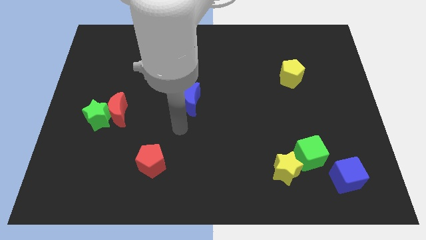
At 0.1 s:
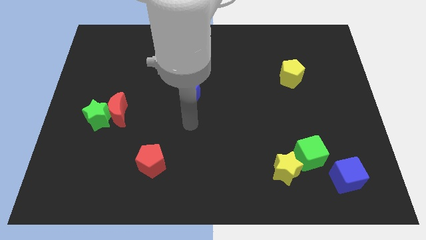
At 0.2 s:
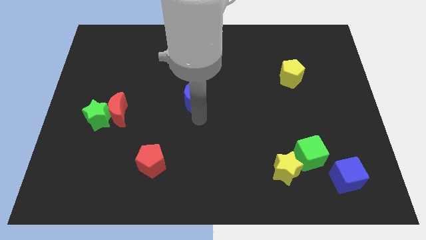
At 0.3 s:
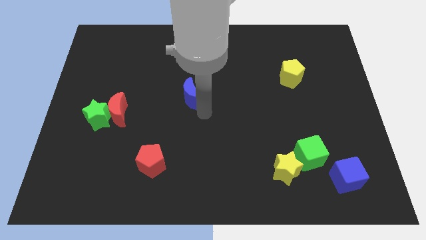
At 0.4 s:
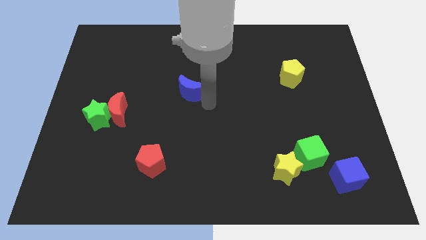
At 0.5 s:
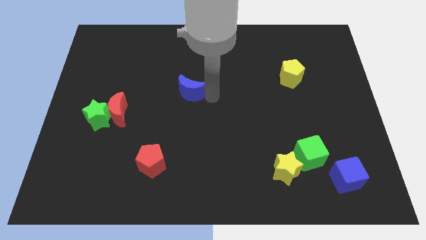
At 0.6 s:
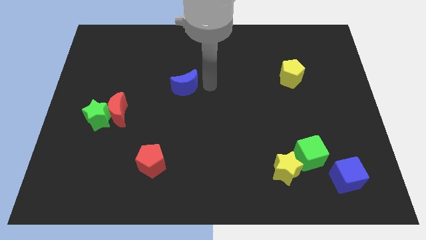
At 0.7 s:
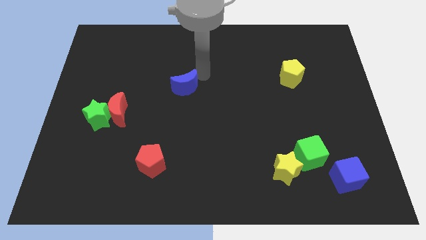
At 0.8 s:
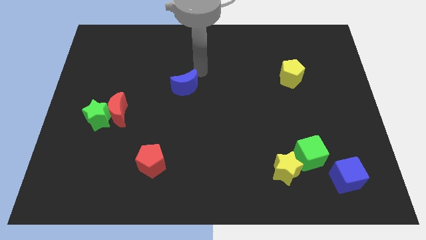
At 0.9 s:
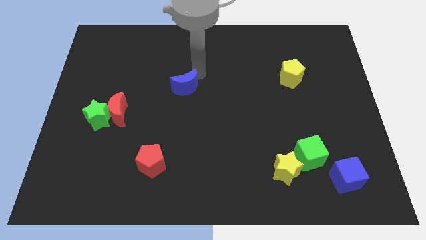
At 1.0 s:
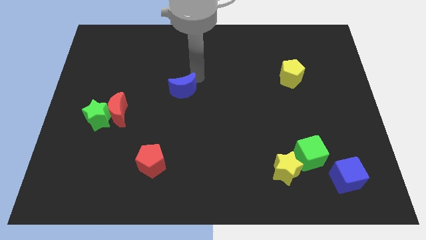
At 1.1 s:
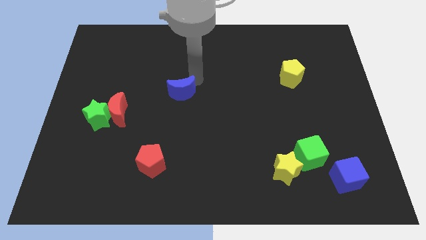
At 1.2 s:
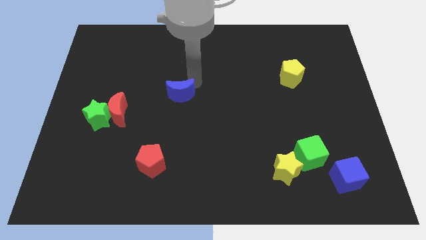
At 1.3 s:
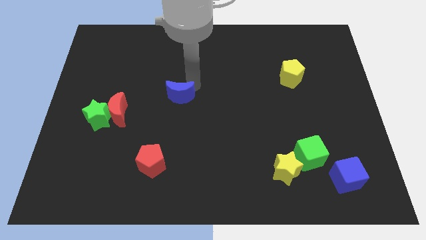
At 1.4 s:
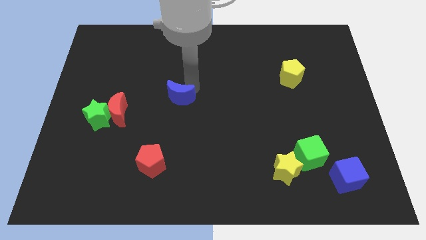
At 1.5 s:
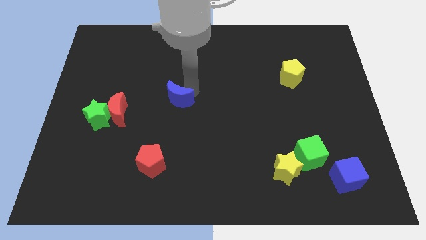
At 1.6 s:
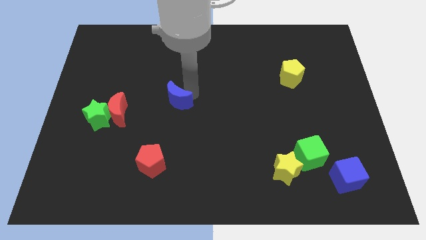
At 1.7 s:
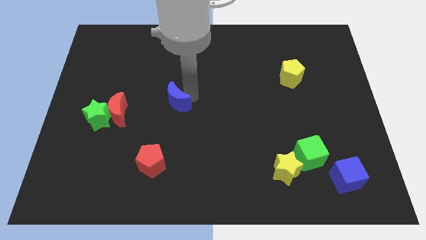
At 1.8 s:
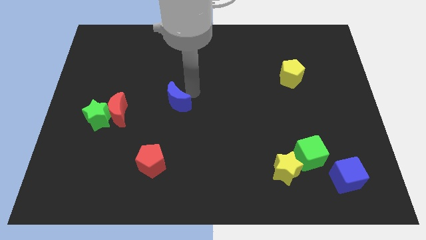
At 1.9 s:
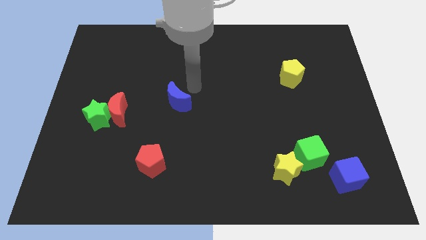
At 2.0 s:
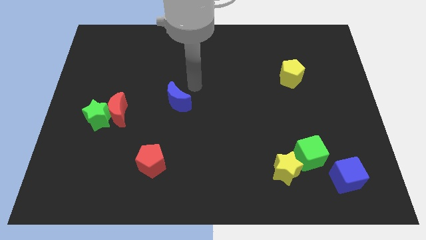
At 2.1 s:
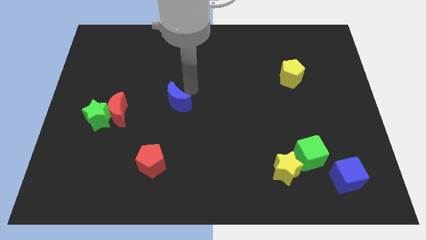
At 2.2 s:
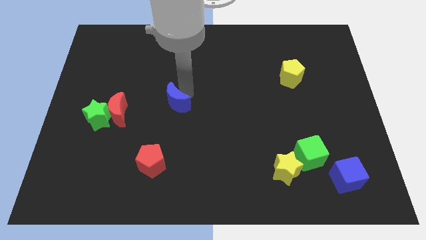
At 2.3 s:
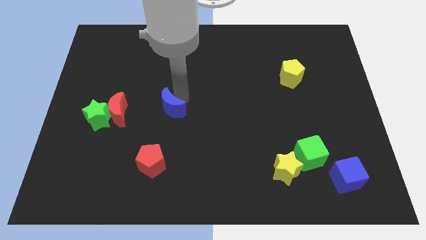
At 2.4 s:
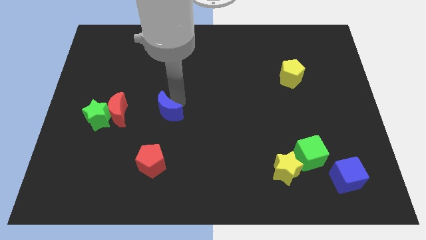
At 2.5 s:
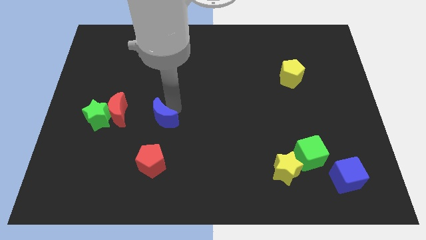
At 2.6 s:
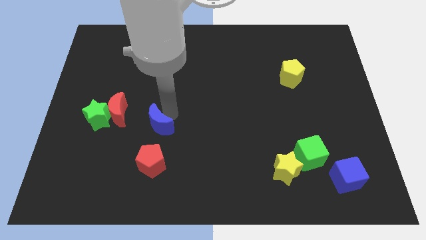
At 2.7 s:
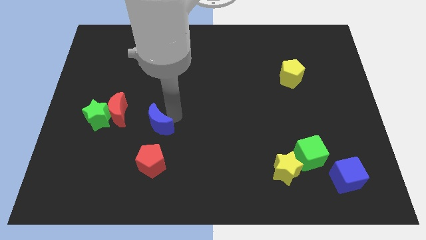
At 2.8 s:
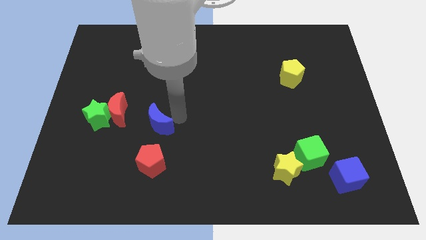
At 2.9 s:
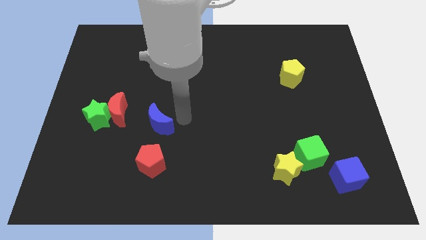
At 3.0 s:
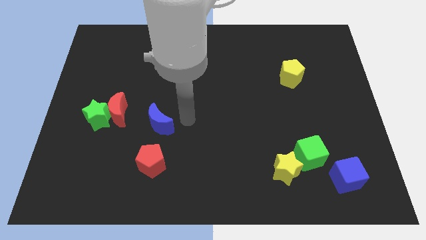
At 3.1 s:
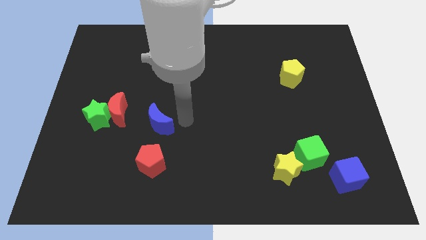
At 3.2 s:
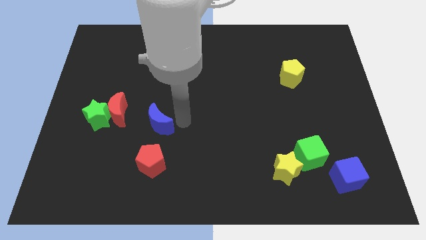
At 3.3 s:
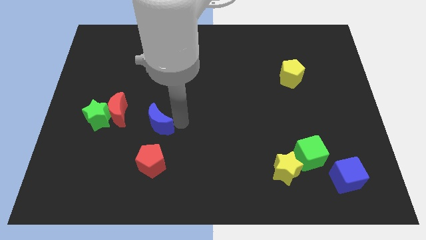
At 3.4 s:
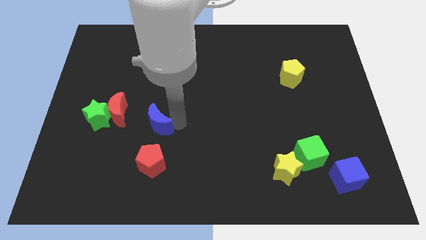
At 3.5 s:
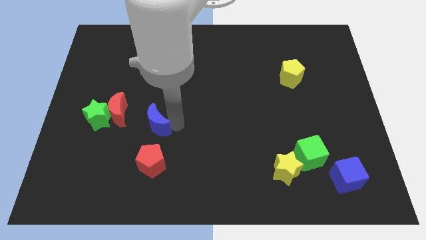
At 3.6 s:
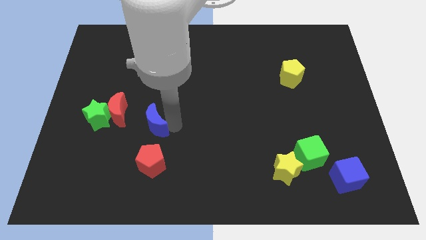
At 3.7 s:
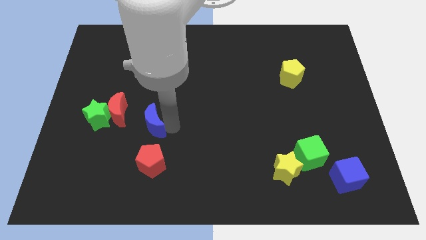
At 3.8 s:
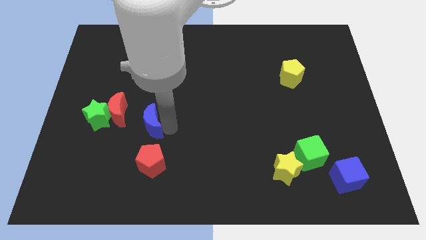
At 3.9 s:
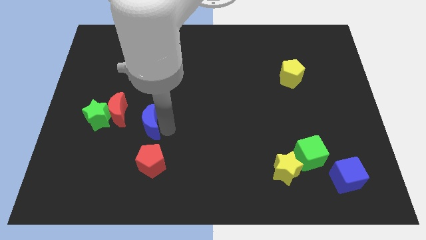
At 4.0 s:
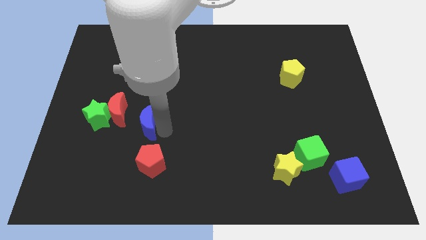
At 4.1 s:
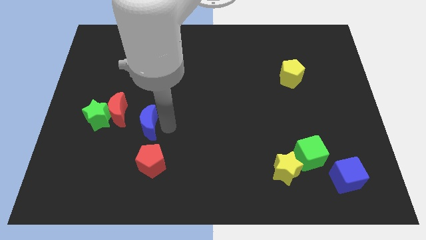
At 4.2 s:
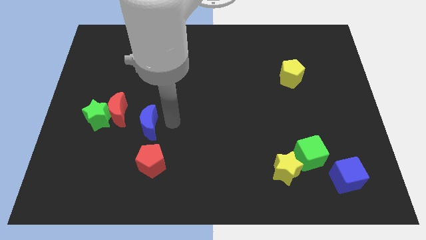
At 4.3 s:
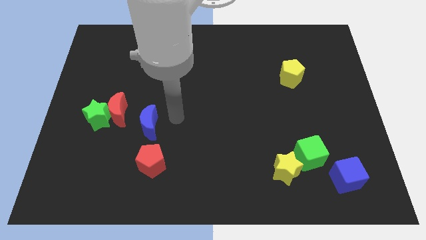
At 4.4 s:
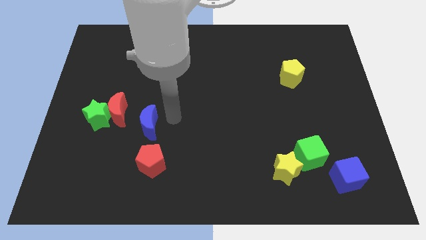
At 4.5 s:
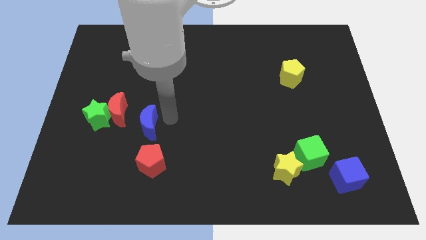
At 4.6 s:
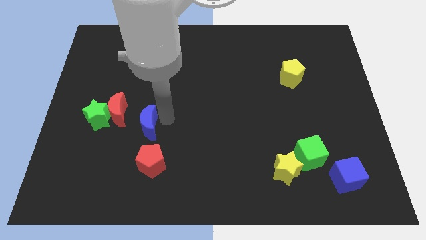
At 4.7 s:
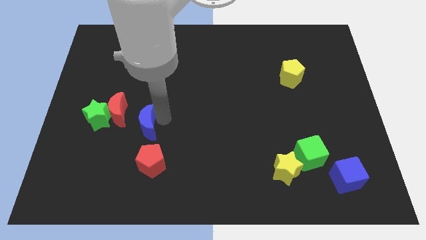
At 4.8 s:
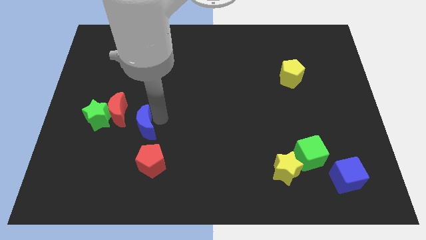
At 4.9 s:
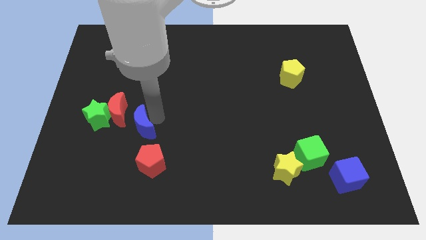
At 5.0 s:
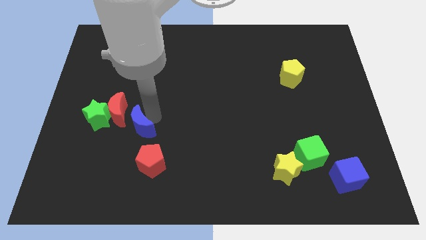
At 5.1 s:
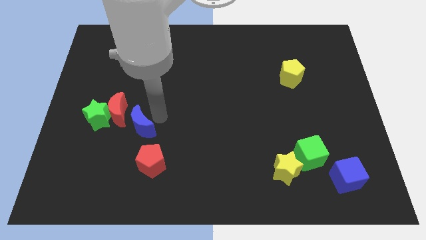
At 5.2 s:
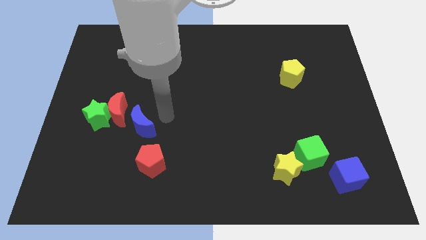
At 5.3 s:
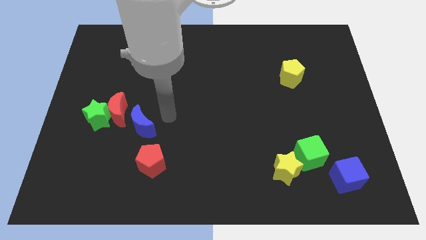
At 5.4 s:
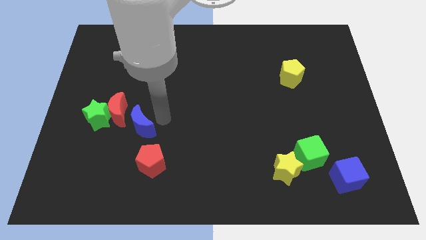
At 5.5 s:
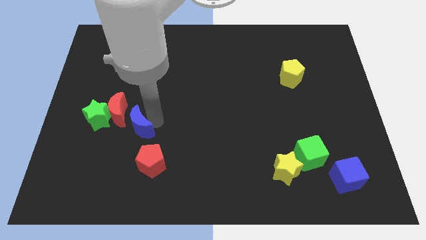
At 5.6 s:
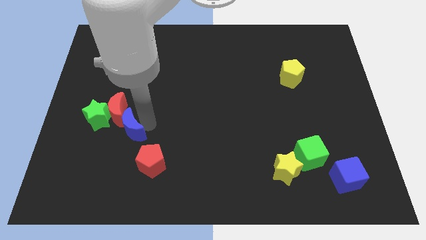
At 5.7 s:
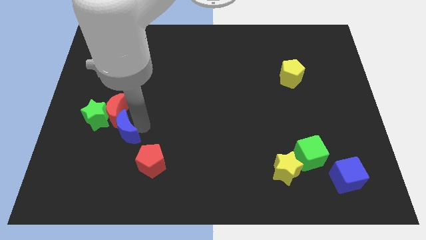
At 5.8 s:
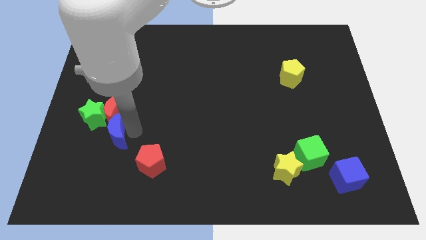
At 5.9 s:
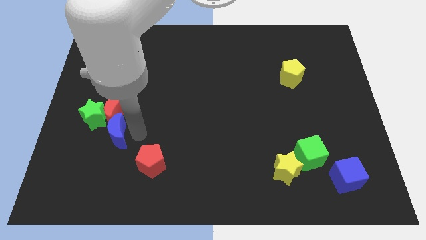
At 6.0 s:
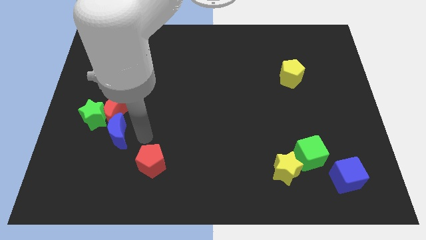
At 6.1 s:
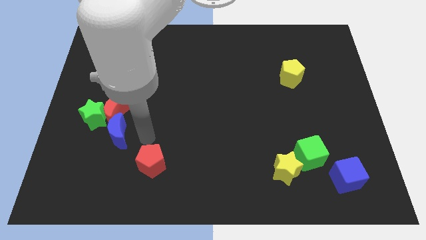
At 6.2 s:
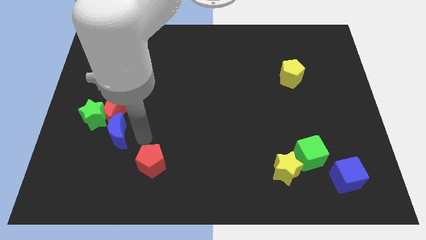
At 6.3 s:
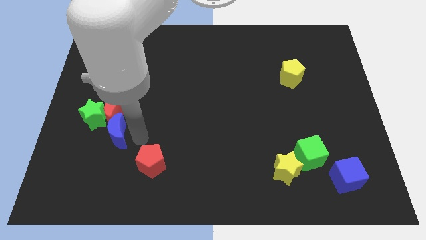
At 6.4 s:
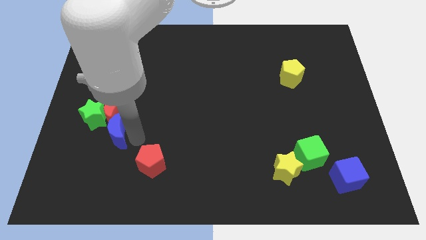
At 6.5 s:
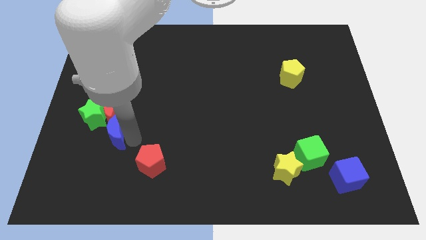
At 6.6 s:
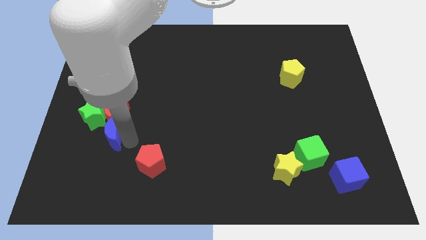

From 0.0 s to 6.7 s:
push the blue moon to the bottom left of the red moon

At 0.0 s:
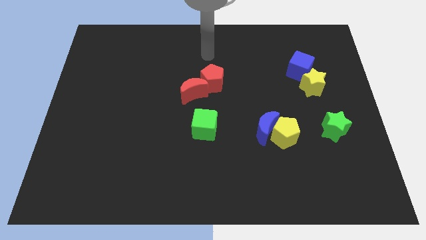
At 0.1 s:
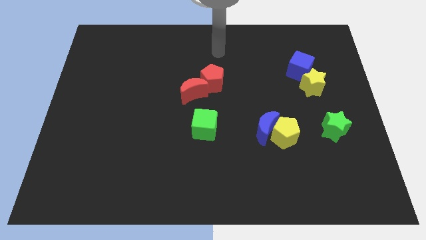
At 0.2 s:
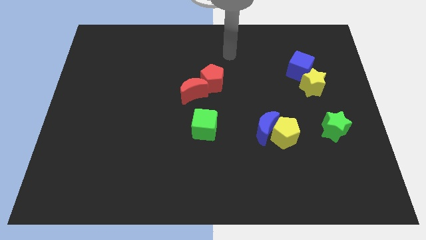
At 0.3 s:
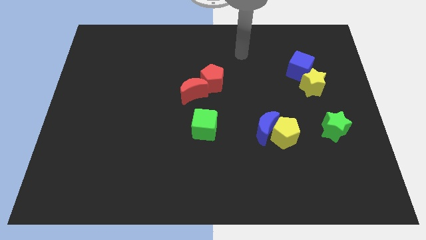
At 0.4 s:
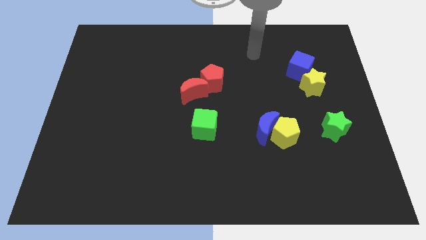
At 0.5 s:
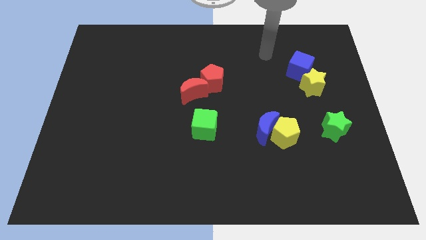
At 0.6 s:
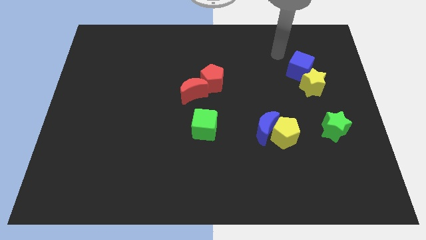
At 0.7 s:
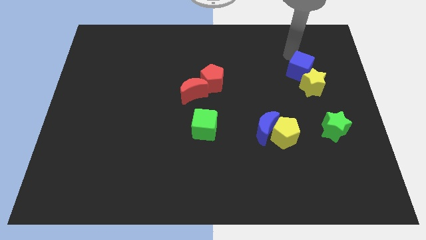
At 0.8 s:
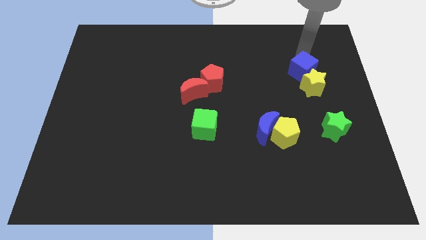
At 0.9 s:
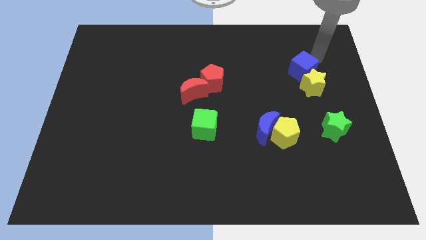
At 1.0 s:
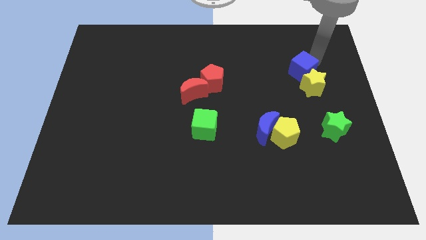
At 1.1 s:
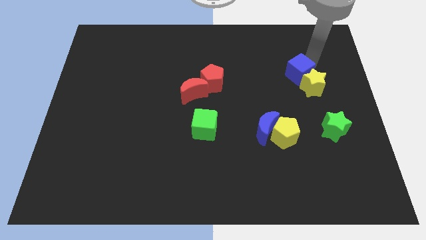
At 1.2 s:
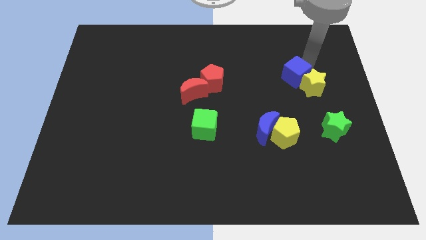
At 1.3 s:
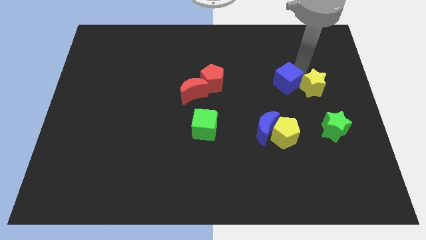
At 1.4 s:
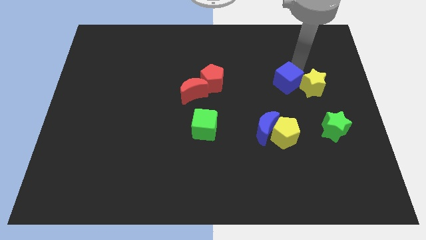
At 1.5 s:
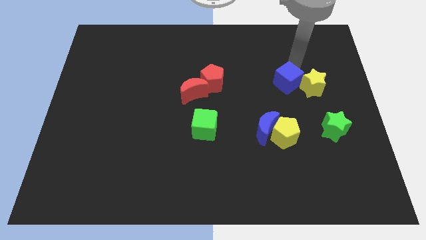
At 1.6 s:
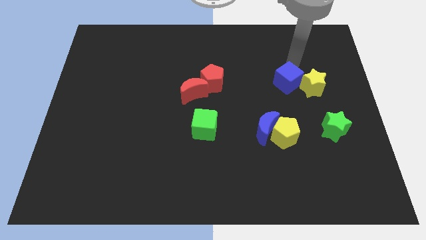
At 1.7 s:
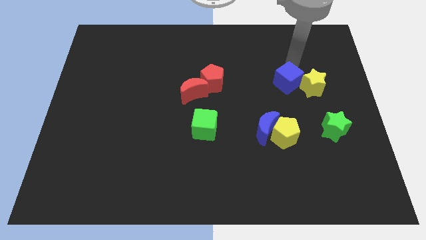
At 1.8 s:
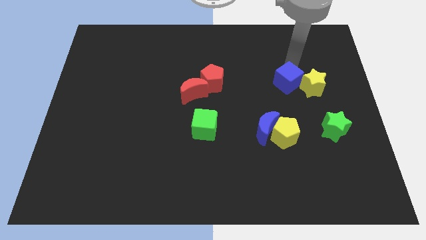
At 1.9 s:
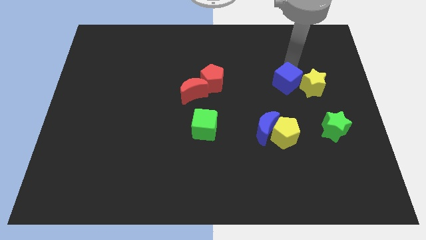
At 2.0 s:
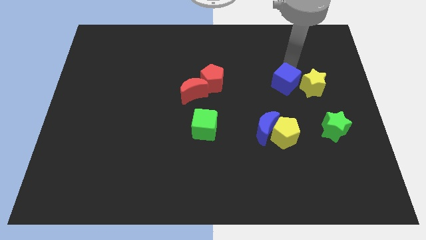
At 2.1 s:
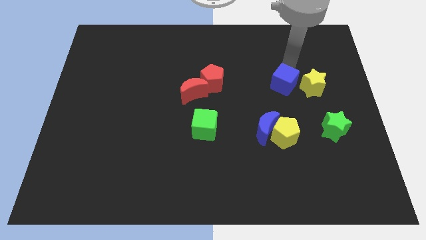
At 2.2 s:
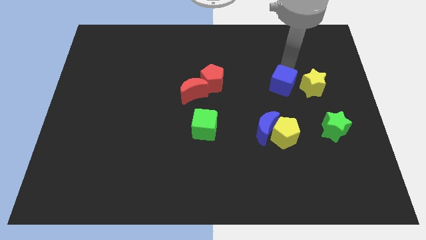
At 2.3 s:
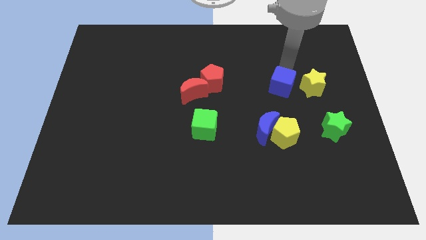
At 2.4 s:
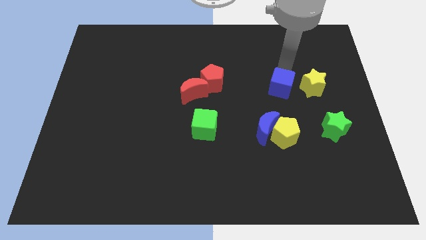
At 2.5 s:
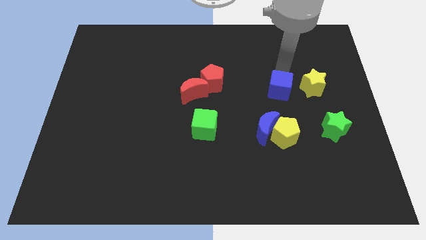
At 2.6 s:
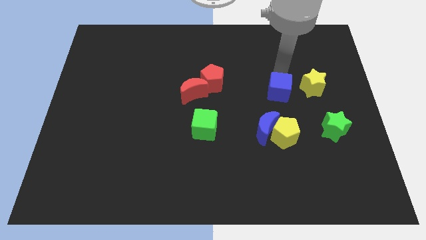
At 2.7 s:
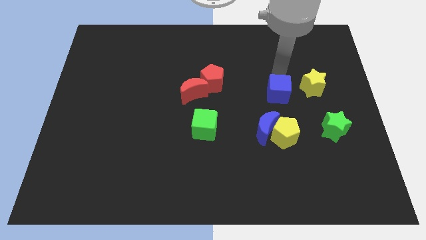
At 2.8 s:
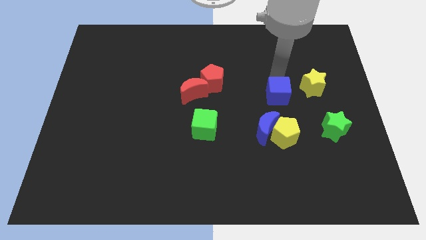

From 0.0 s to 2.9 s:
push the blue cube diagonally up and to the right of the blue moon
